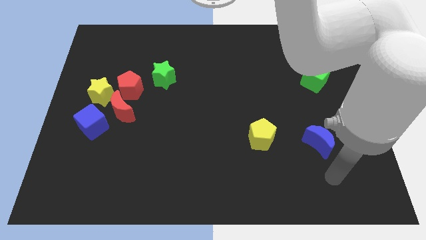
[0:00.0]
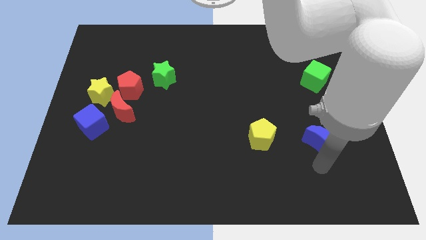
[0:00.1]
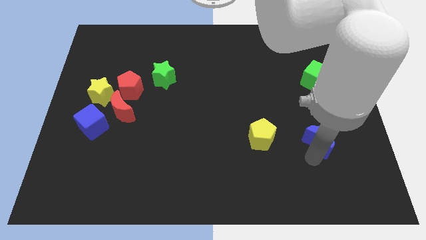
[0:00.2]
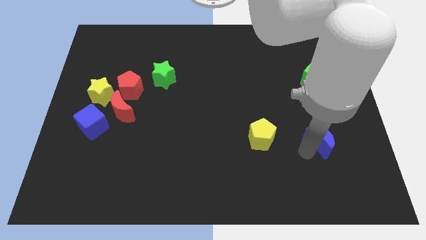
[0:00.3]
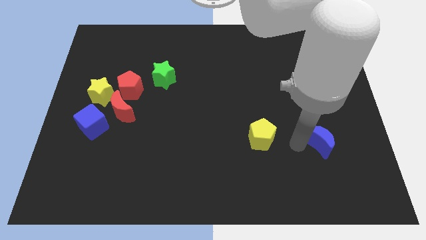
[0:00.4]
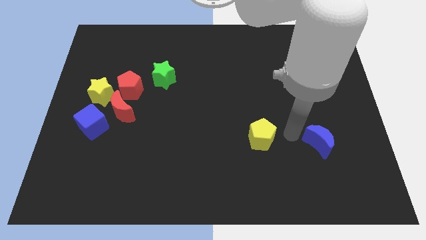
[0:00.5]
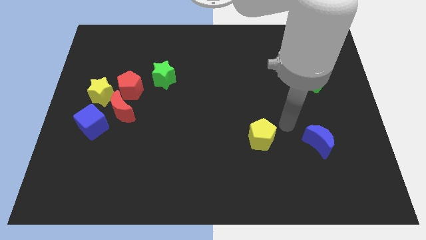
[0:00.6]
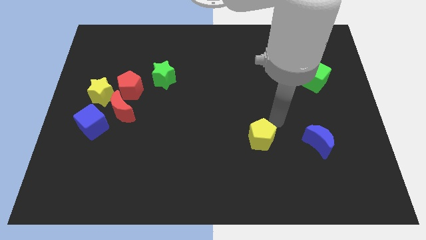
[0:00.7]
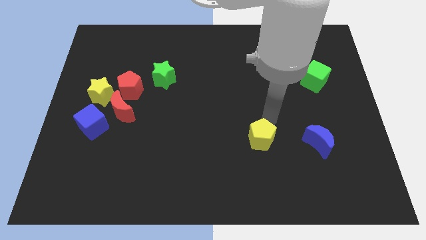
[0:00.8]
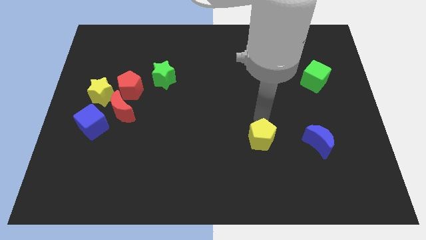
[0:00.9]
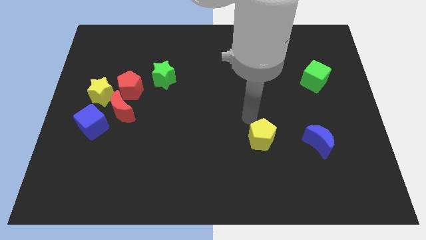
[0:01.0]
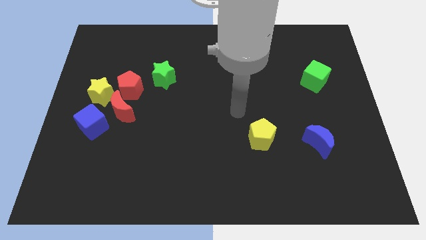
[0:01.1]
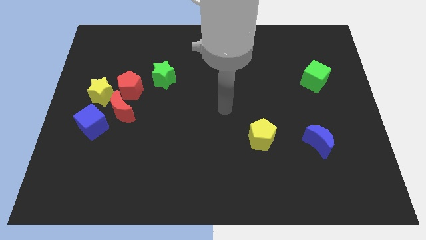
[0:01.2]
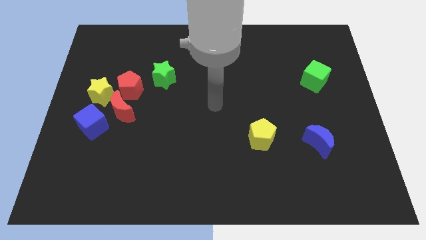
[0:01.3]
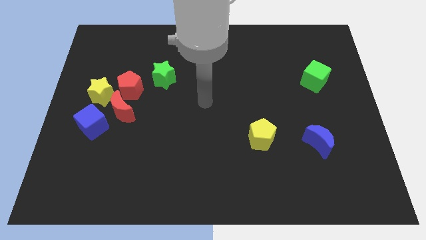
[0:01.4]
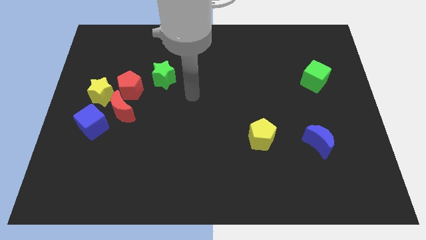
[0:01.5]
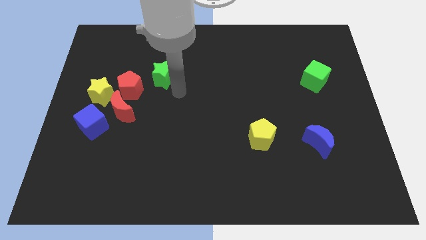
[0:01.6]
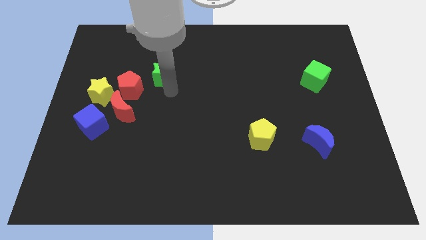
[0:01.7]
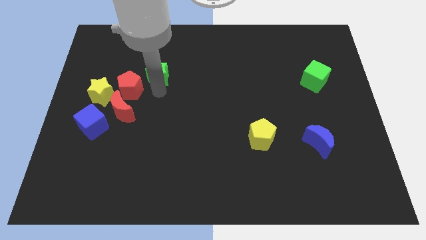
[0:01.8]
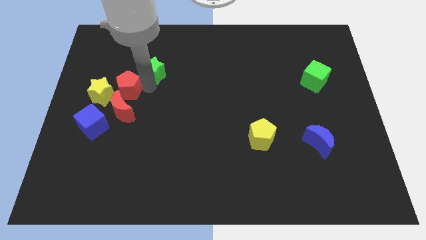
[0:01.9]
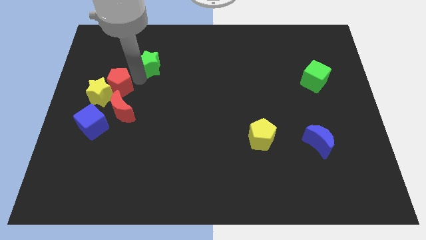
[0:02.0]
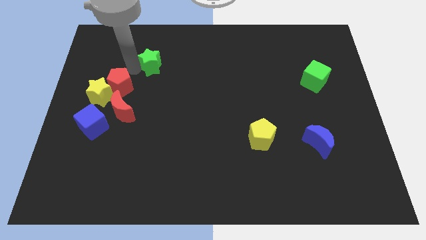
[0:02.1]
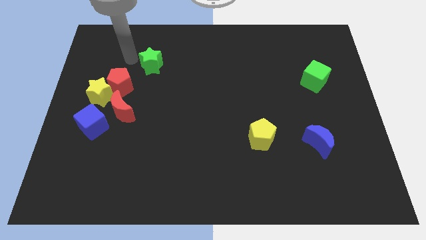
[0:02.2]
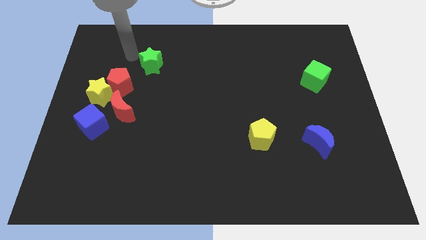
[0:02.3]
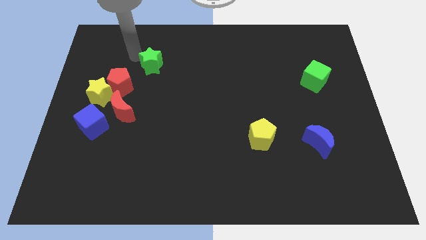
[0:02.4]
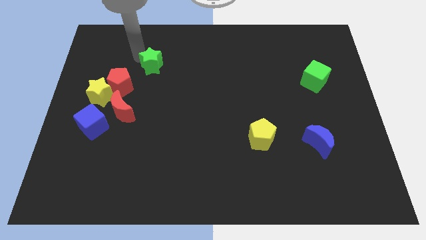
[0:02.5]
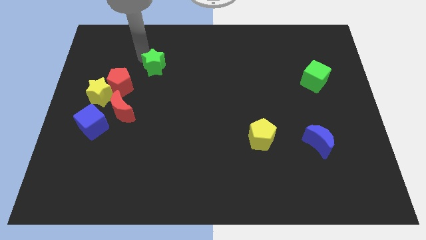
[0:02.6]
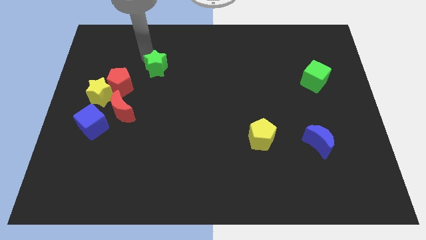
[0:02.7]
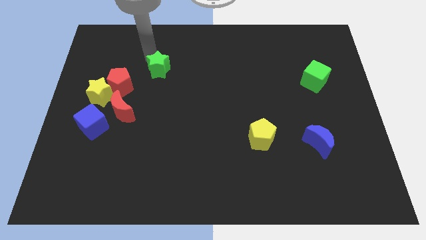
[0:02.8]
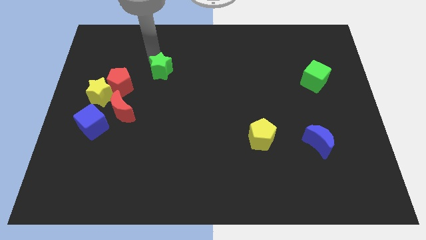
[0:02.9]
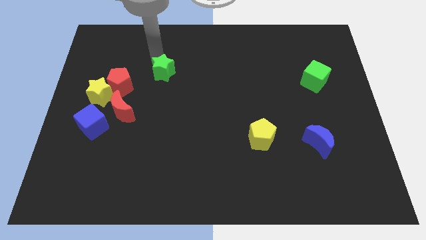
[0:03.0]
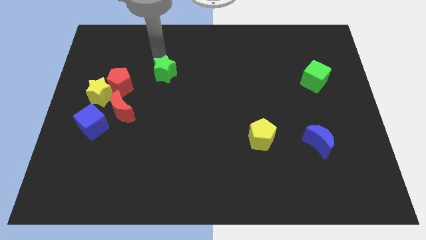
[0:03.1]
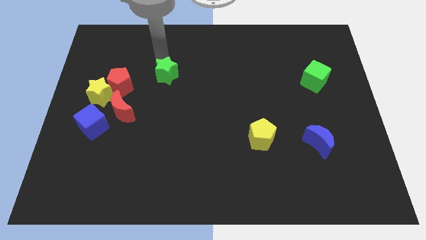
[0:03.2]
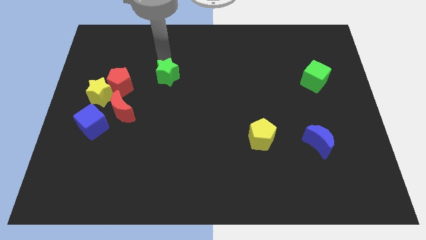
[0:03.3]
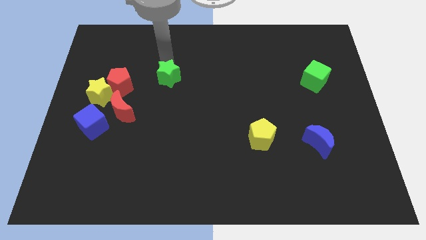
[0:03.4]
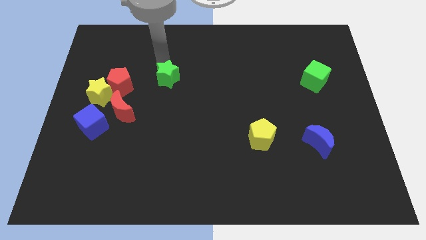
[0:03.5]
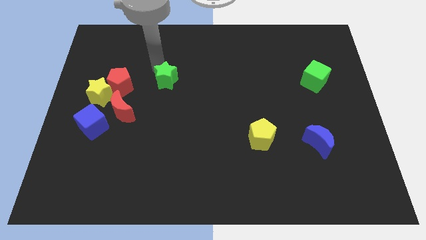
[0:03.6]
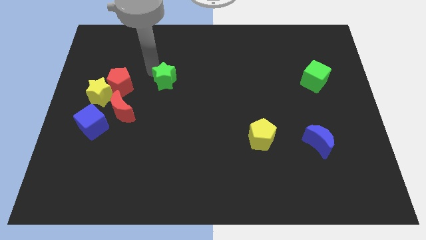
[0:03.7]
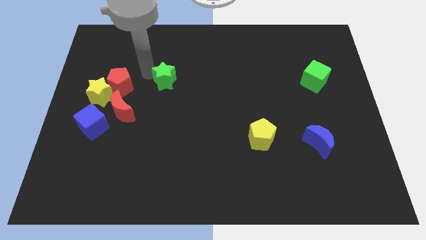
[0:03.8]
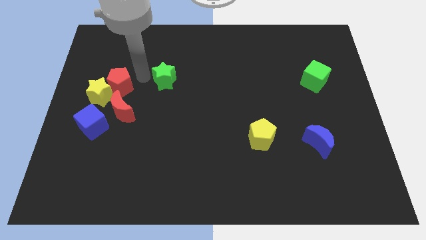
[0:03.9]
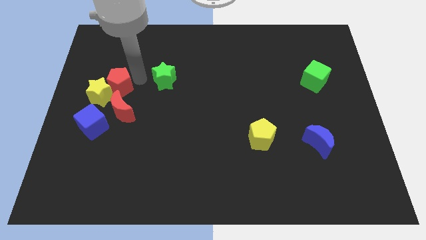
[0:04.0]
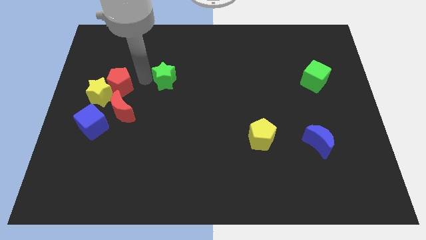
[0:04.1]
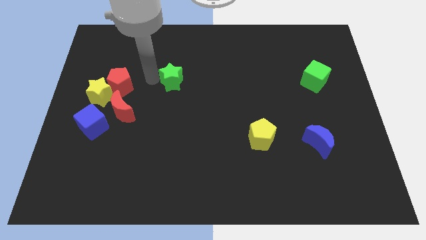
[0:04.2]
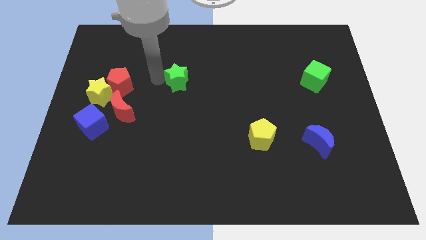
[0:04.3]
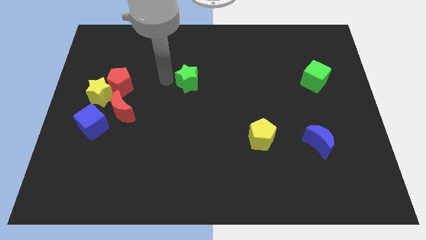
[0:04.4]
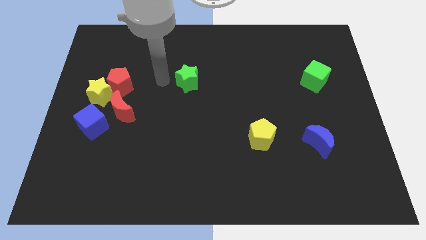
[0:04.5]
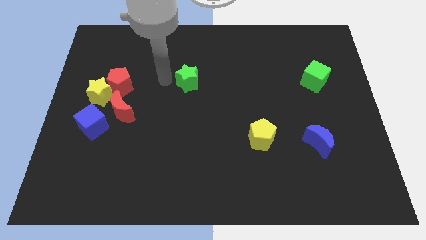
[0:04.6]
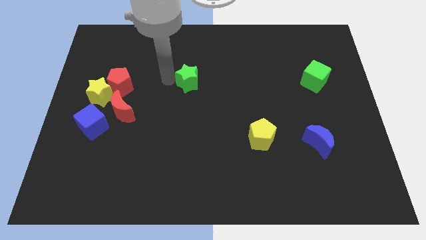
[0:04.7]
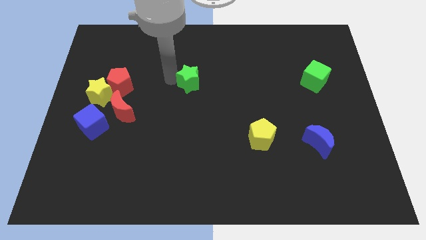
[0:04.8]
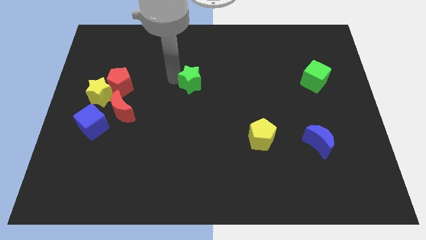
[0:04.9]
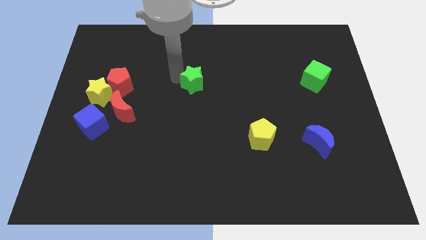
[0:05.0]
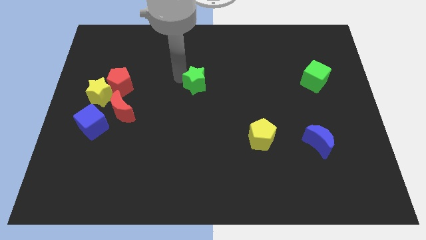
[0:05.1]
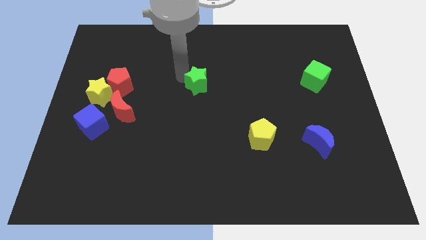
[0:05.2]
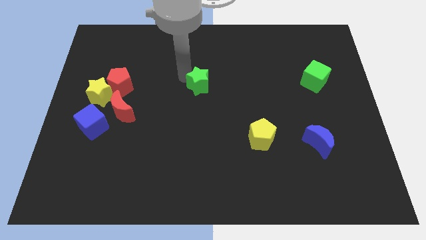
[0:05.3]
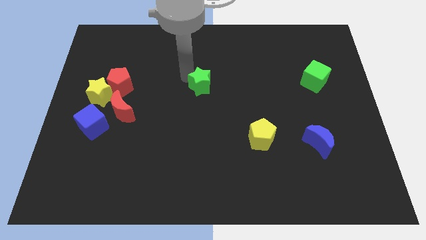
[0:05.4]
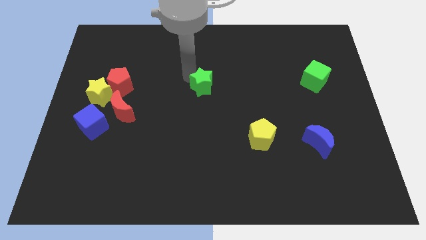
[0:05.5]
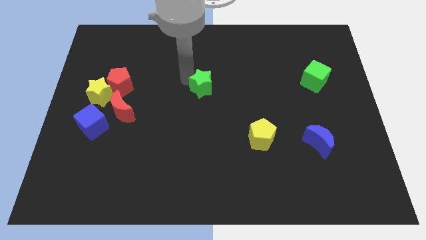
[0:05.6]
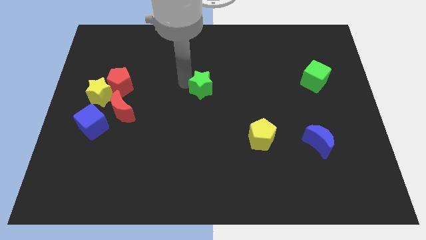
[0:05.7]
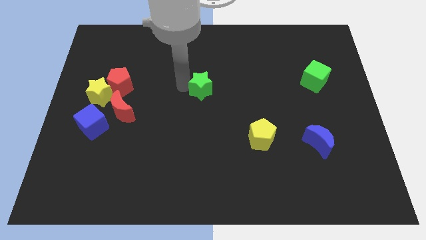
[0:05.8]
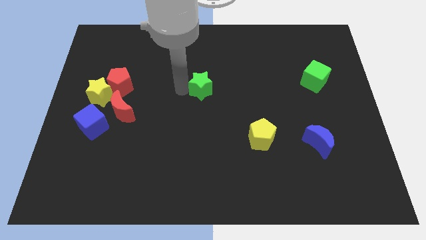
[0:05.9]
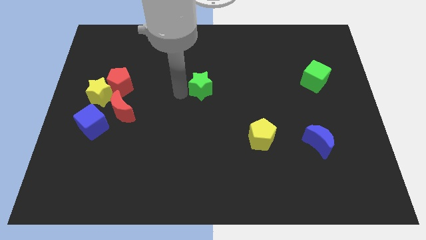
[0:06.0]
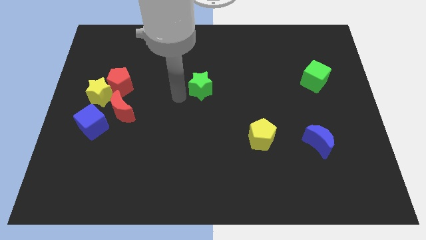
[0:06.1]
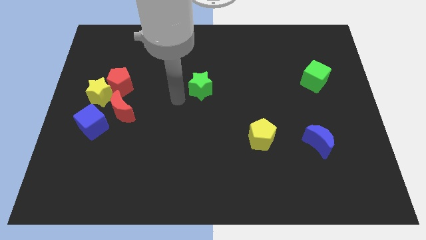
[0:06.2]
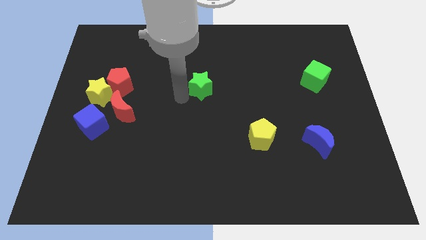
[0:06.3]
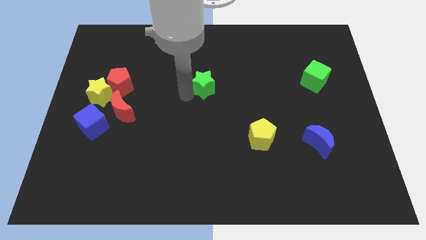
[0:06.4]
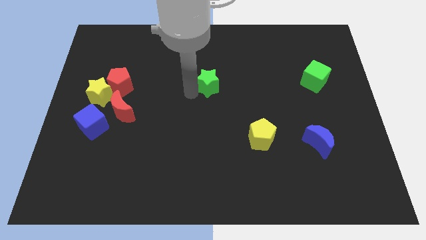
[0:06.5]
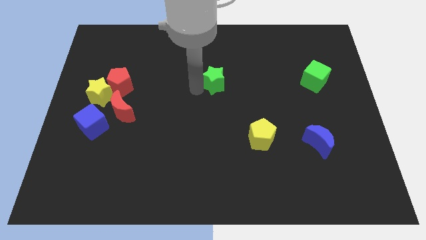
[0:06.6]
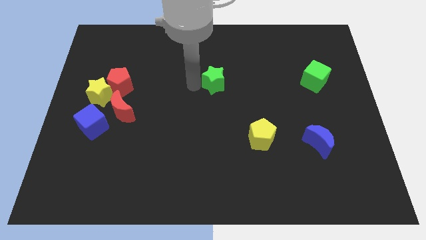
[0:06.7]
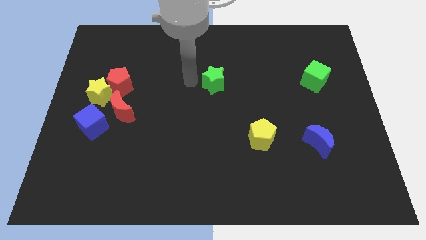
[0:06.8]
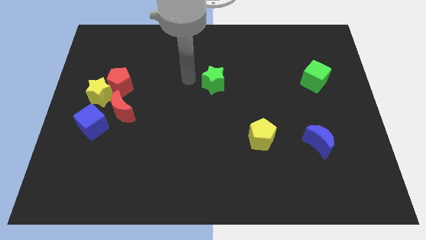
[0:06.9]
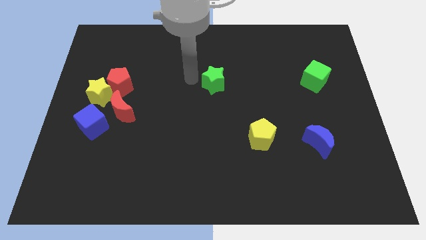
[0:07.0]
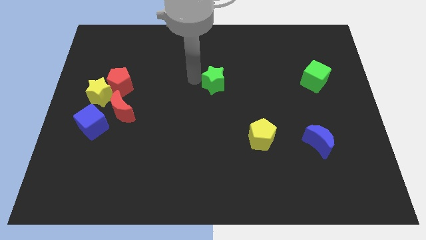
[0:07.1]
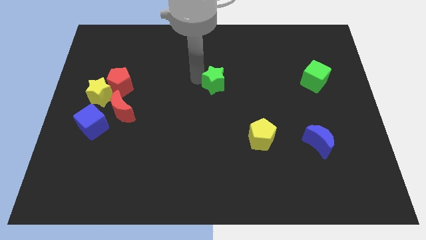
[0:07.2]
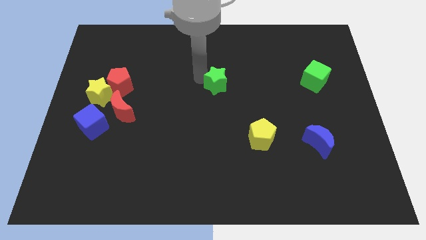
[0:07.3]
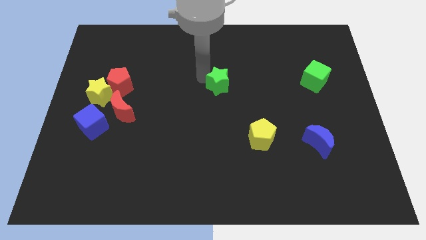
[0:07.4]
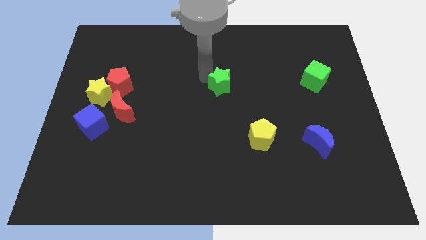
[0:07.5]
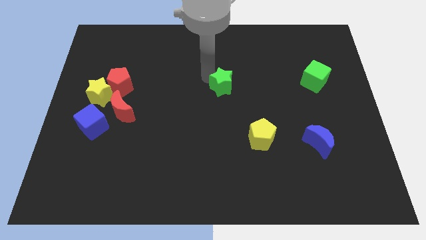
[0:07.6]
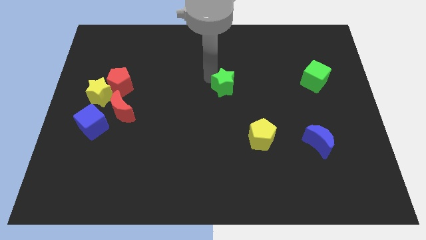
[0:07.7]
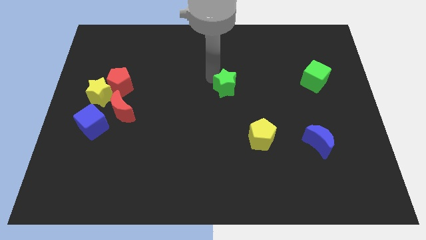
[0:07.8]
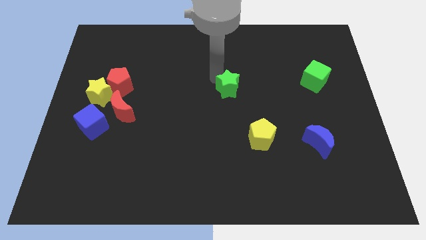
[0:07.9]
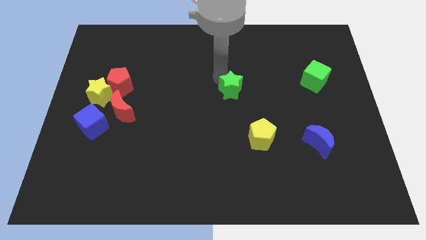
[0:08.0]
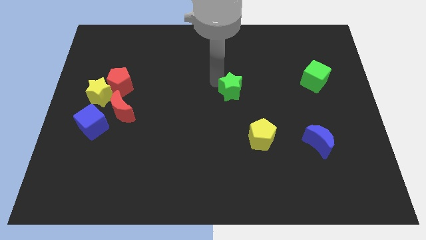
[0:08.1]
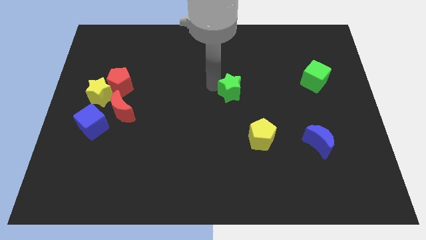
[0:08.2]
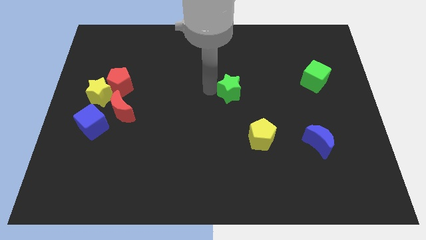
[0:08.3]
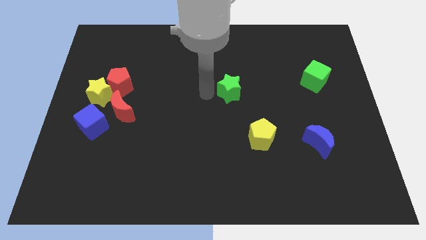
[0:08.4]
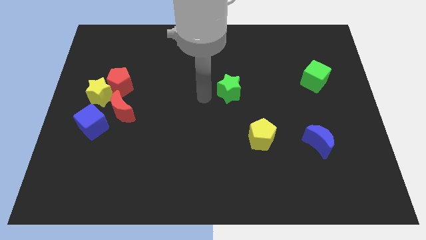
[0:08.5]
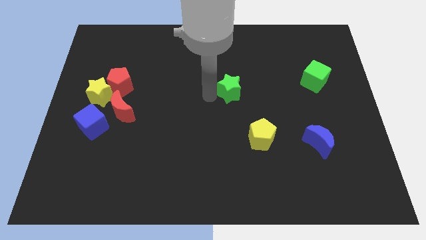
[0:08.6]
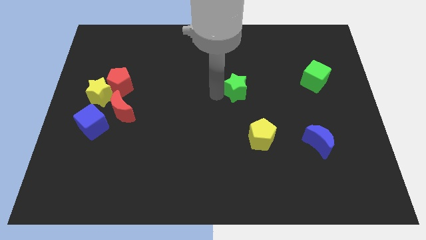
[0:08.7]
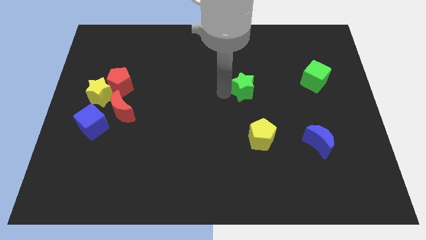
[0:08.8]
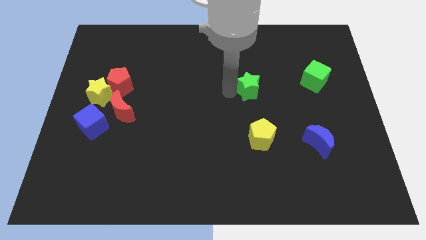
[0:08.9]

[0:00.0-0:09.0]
slide the green star right
